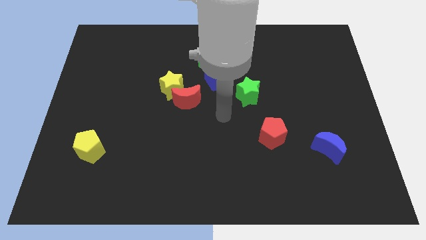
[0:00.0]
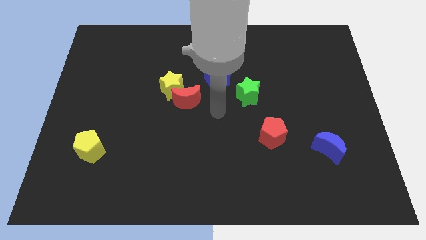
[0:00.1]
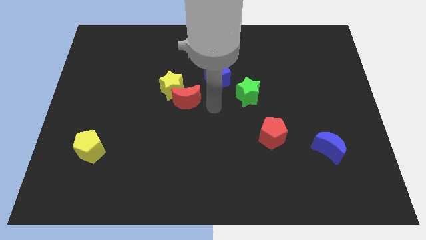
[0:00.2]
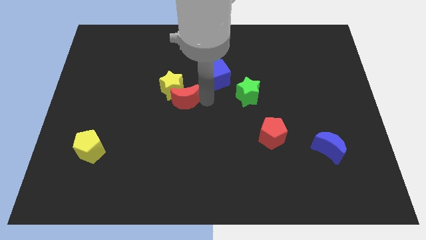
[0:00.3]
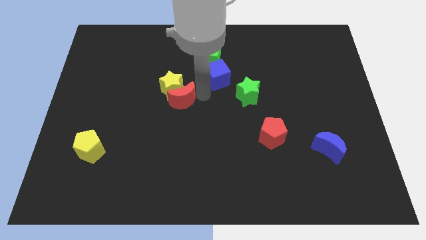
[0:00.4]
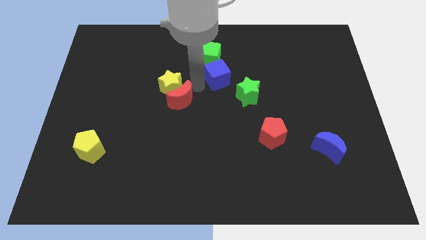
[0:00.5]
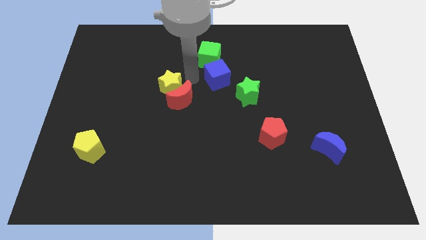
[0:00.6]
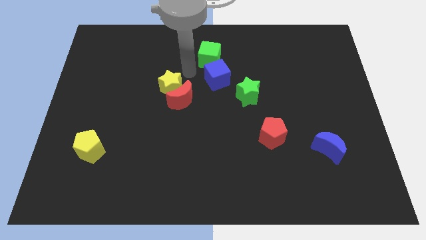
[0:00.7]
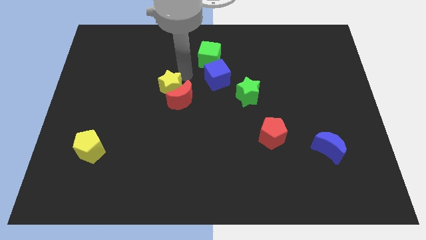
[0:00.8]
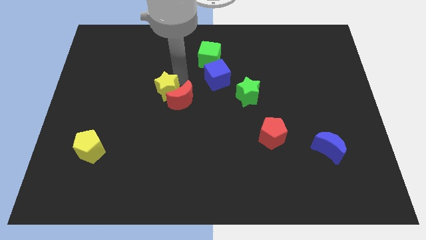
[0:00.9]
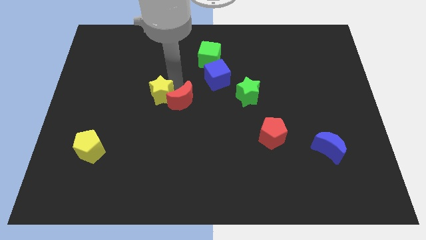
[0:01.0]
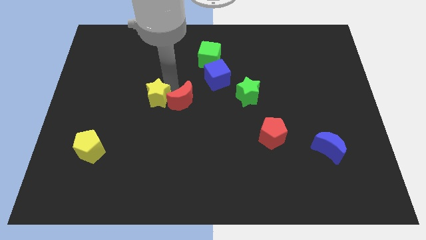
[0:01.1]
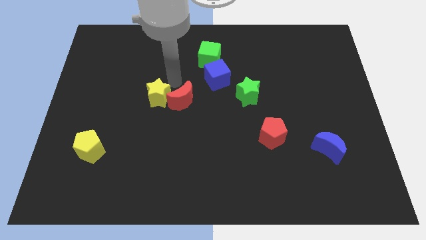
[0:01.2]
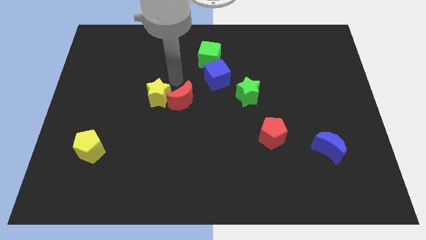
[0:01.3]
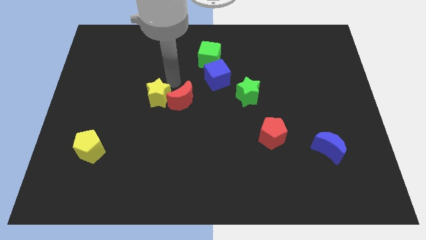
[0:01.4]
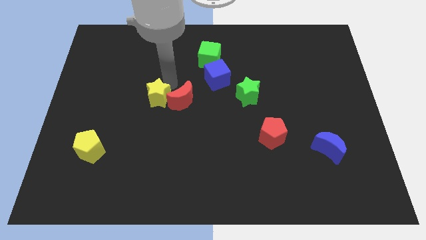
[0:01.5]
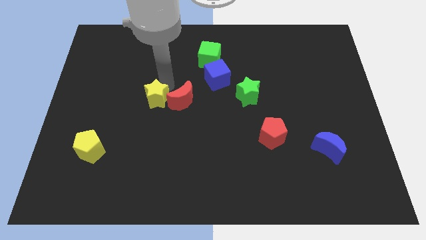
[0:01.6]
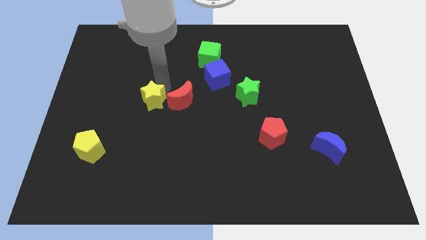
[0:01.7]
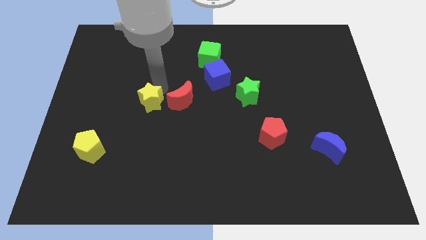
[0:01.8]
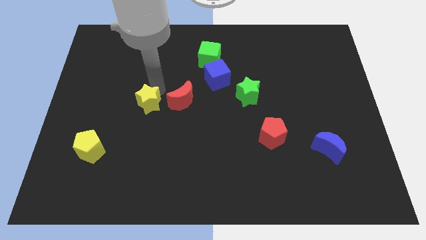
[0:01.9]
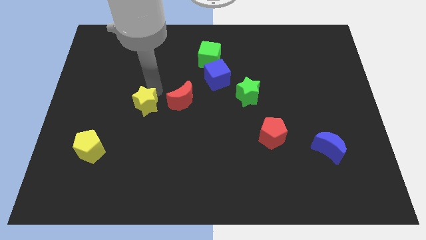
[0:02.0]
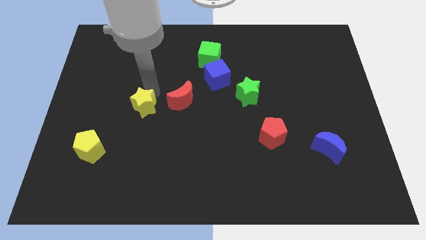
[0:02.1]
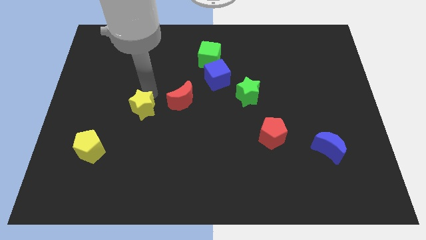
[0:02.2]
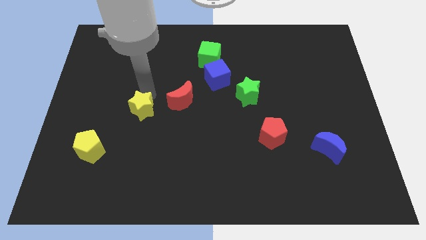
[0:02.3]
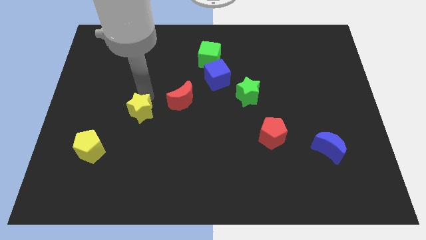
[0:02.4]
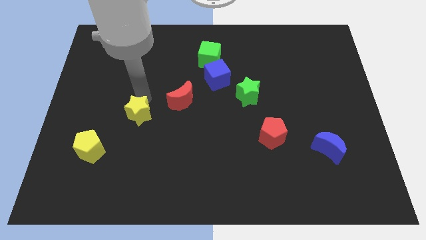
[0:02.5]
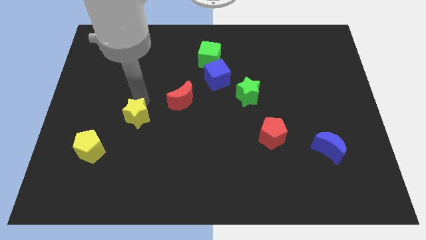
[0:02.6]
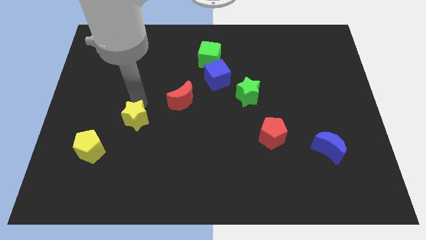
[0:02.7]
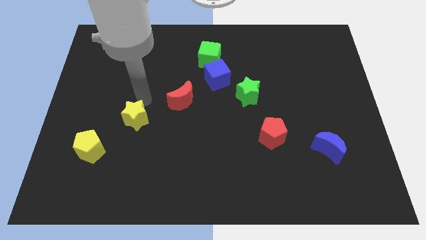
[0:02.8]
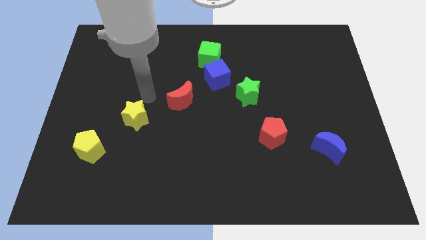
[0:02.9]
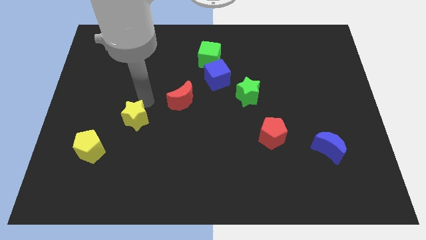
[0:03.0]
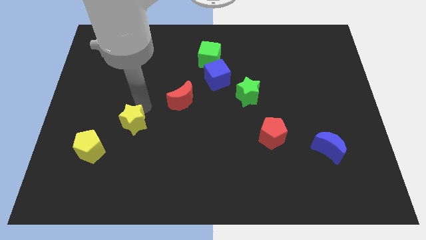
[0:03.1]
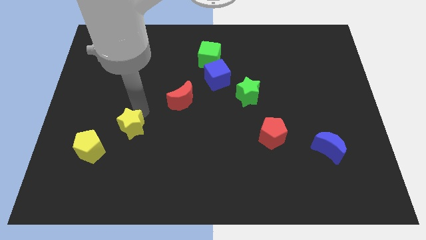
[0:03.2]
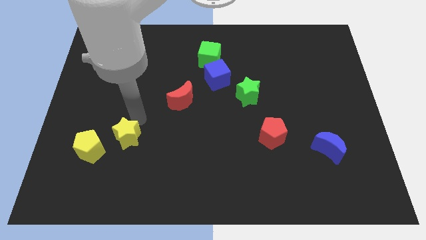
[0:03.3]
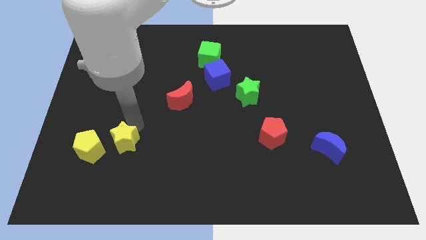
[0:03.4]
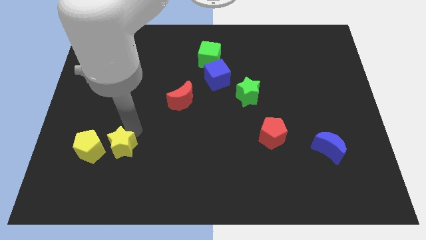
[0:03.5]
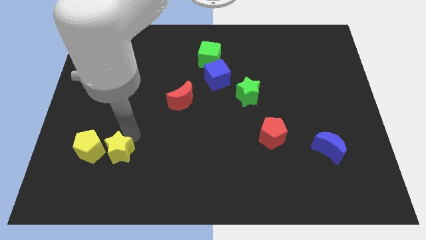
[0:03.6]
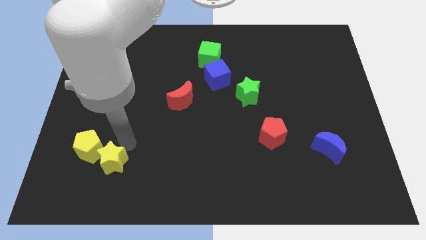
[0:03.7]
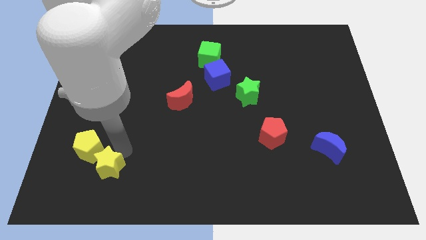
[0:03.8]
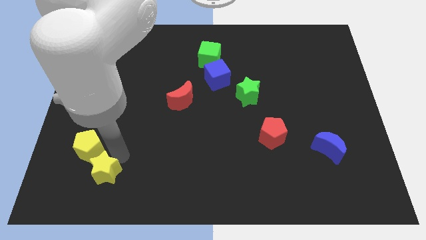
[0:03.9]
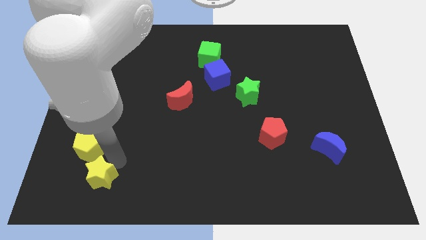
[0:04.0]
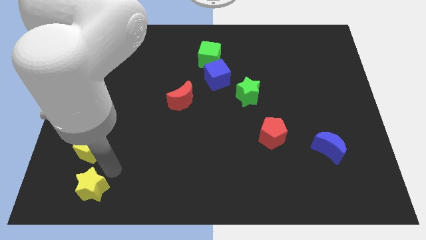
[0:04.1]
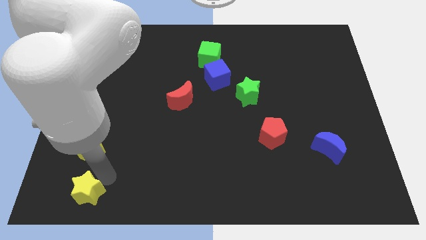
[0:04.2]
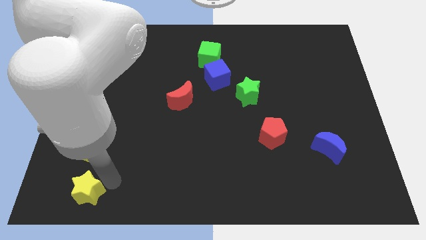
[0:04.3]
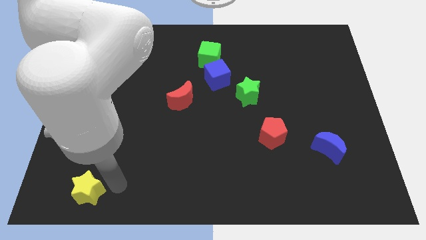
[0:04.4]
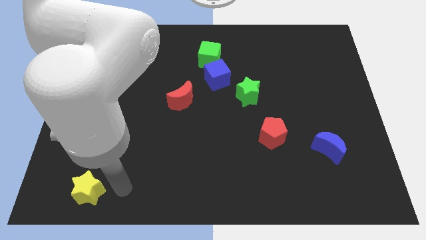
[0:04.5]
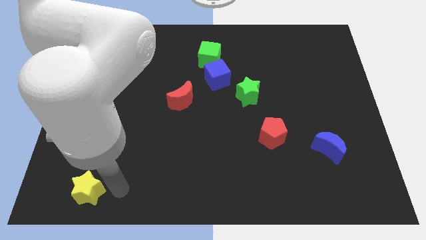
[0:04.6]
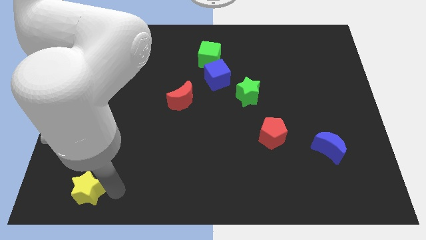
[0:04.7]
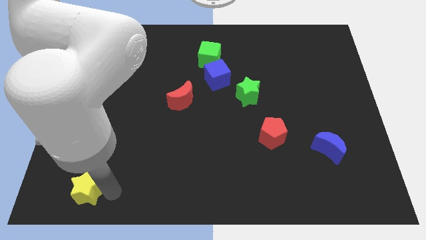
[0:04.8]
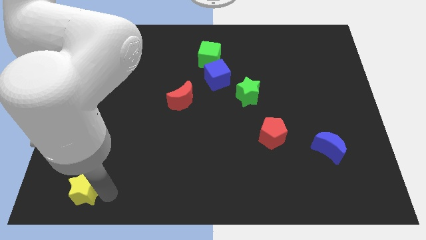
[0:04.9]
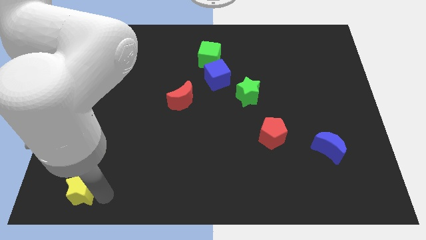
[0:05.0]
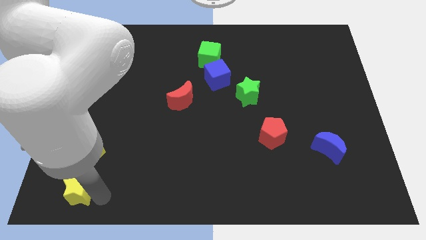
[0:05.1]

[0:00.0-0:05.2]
put the yellow star to the bottom left corner
